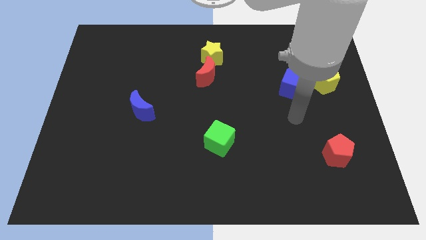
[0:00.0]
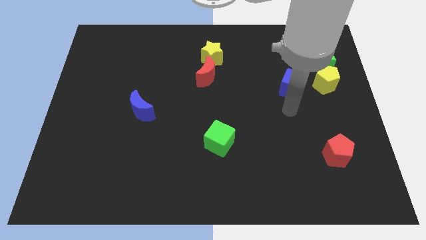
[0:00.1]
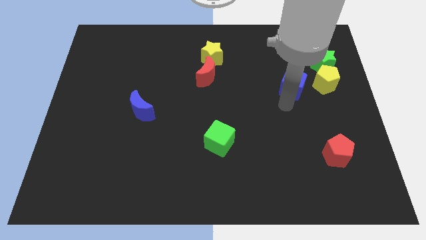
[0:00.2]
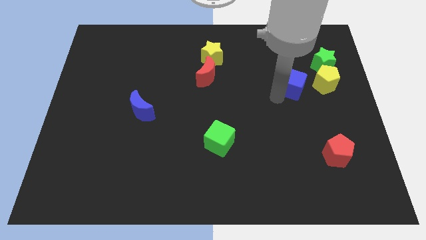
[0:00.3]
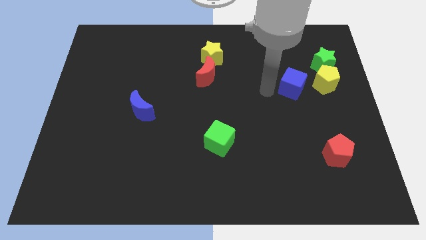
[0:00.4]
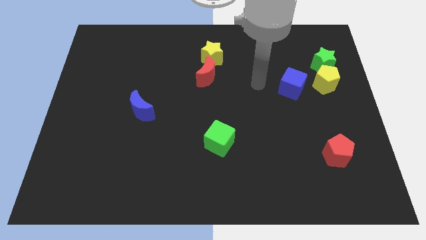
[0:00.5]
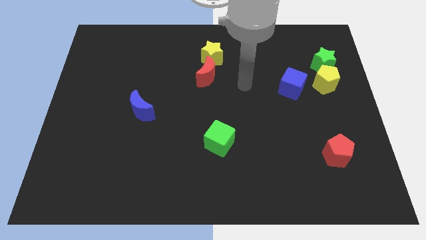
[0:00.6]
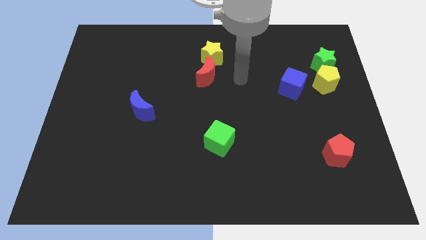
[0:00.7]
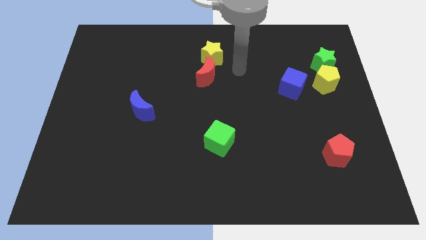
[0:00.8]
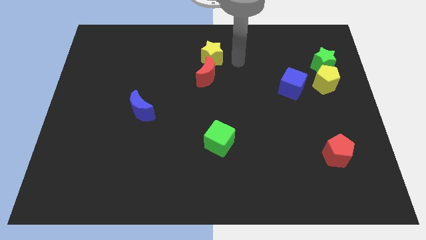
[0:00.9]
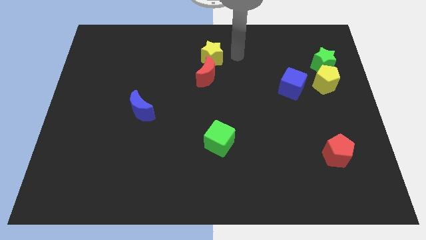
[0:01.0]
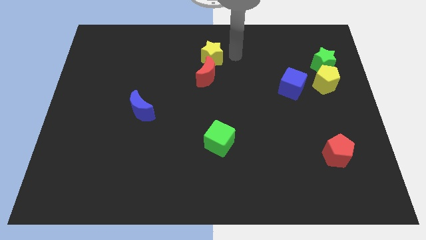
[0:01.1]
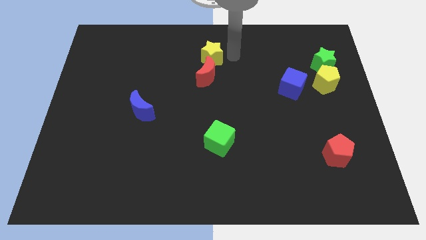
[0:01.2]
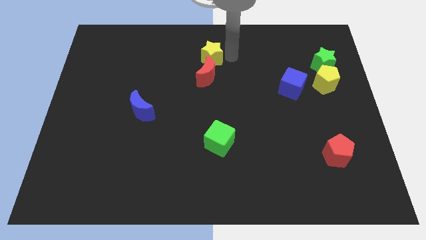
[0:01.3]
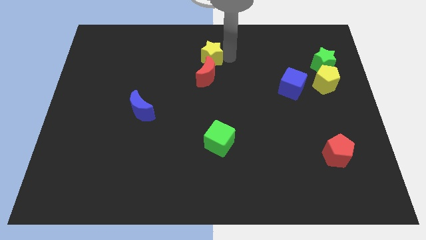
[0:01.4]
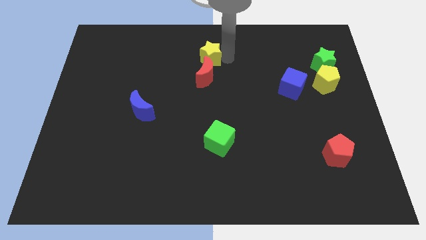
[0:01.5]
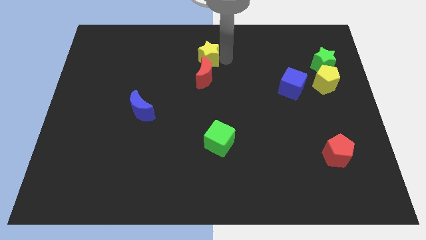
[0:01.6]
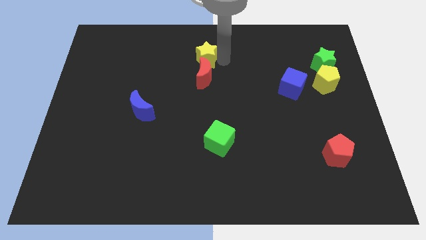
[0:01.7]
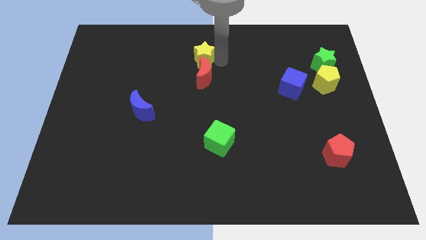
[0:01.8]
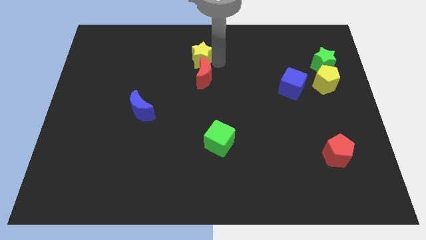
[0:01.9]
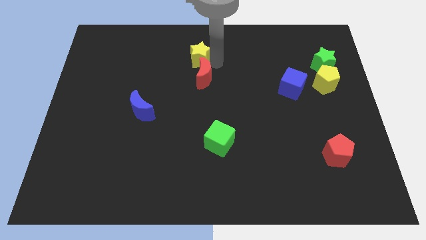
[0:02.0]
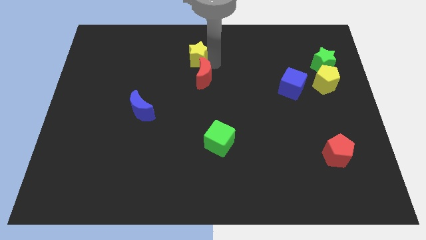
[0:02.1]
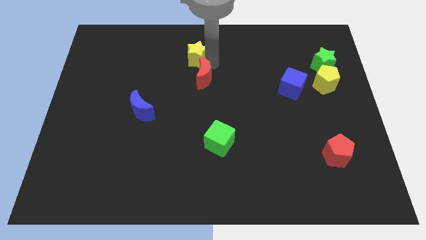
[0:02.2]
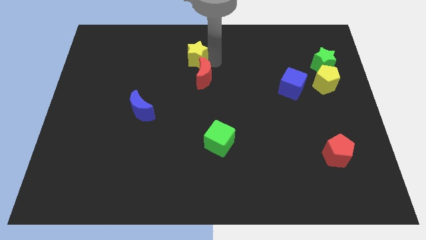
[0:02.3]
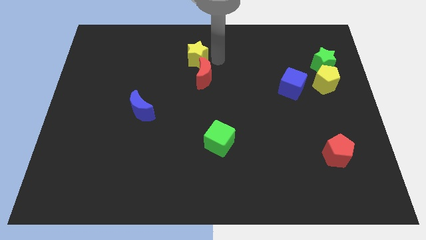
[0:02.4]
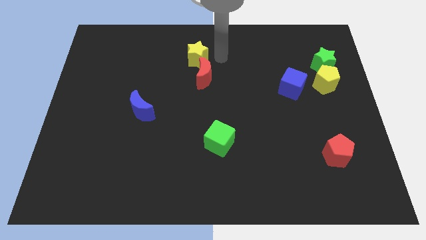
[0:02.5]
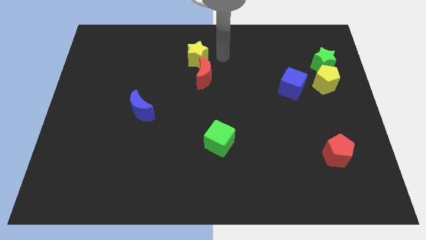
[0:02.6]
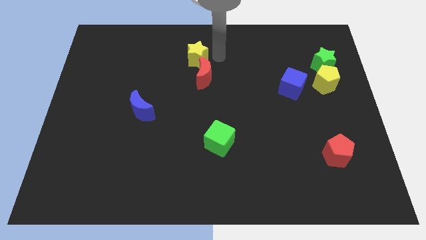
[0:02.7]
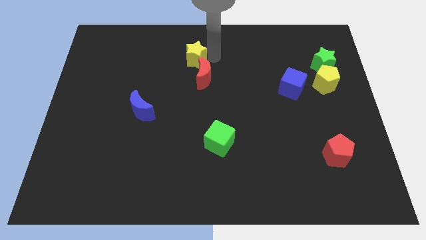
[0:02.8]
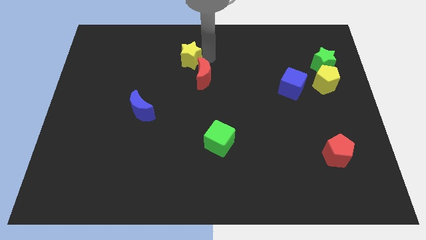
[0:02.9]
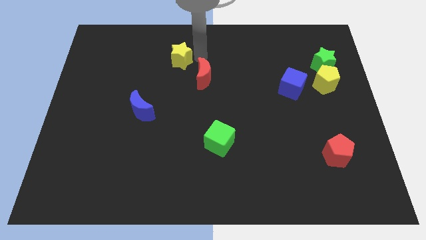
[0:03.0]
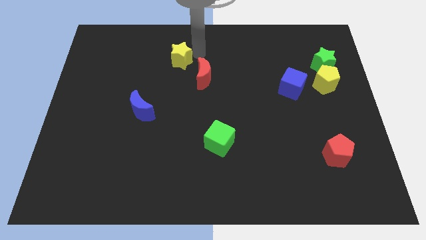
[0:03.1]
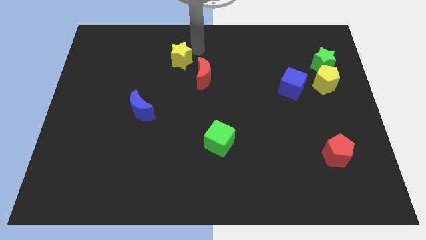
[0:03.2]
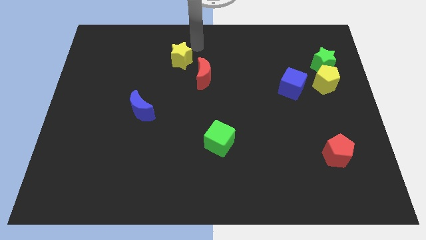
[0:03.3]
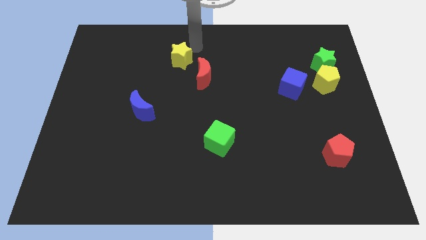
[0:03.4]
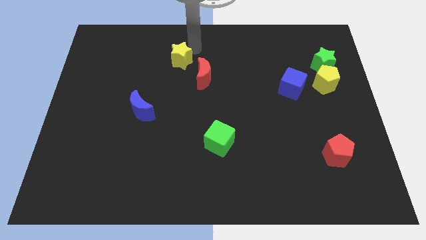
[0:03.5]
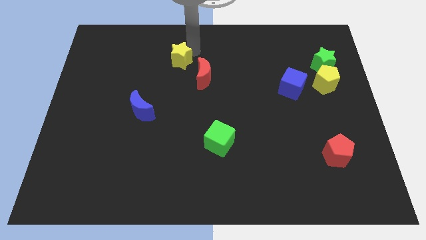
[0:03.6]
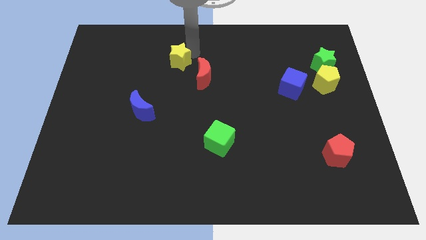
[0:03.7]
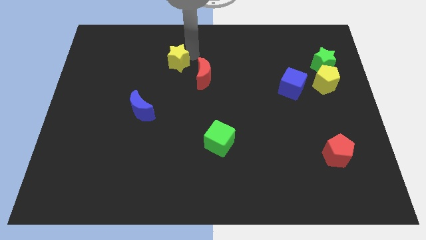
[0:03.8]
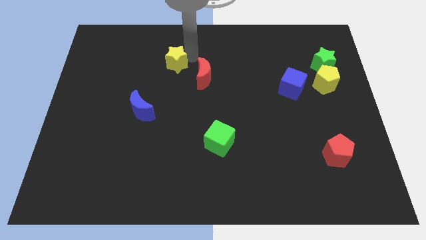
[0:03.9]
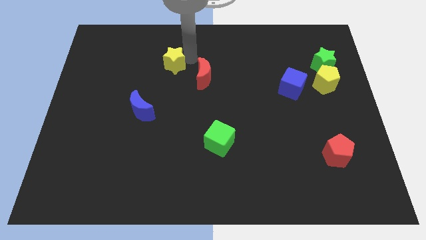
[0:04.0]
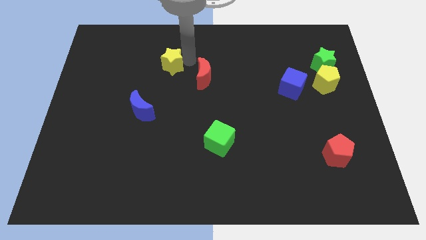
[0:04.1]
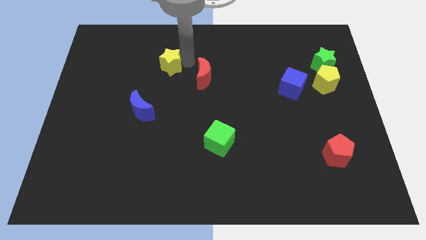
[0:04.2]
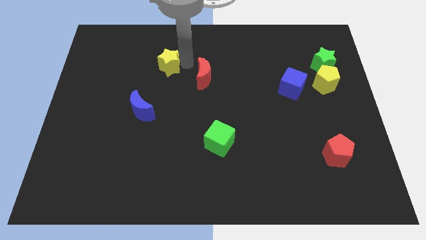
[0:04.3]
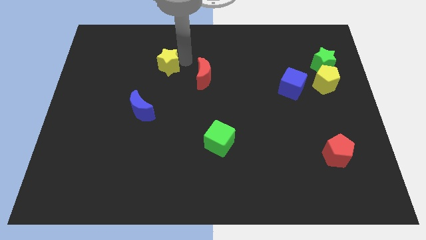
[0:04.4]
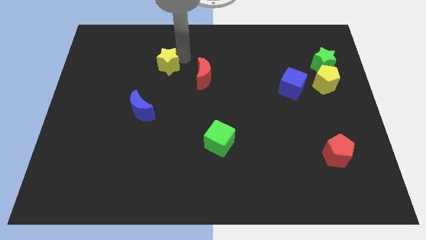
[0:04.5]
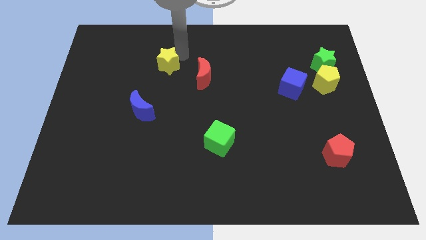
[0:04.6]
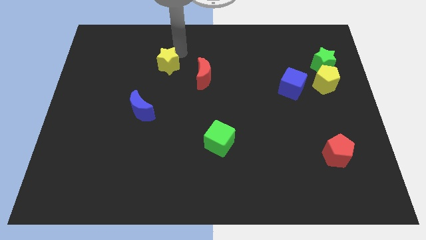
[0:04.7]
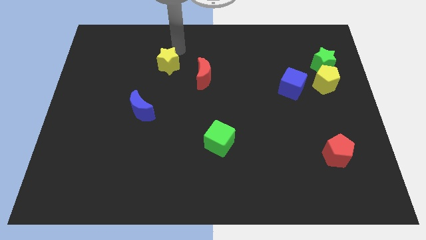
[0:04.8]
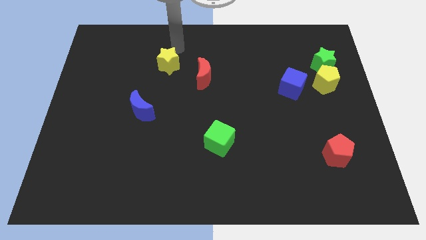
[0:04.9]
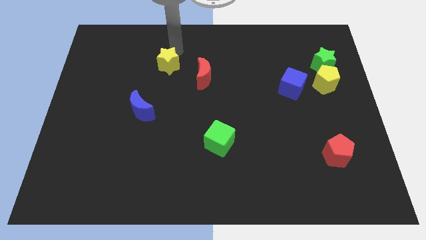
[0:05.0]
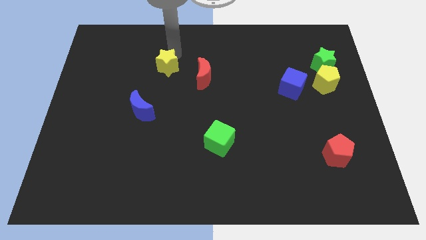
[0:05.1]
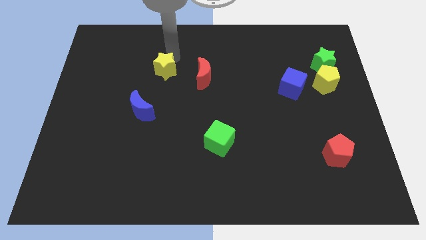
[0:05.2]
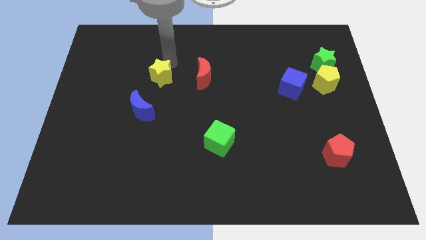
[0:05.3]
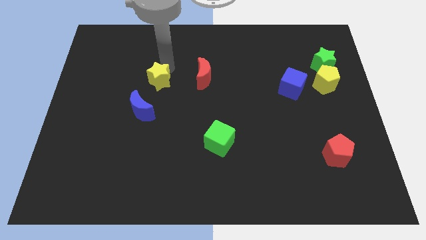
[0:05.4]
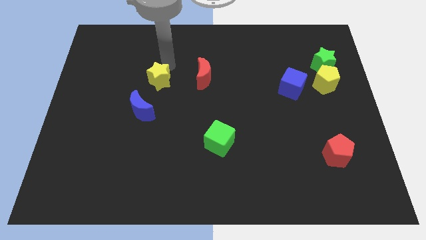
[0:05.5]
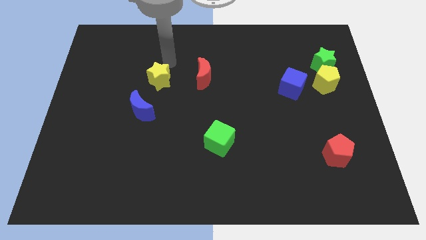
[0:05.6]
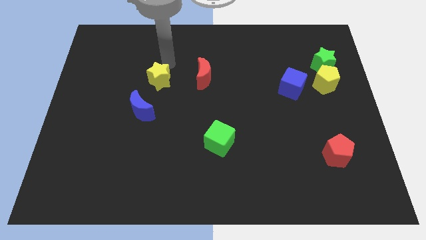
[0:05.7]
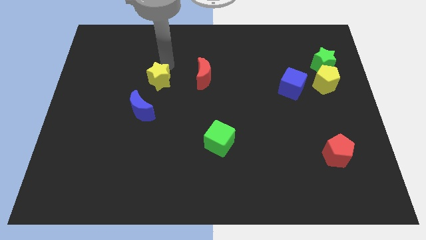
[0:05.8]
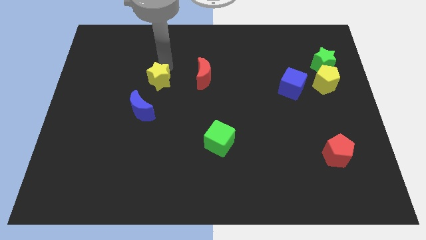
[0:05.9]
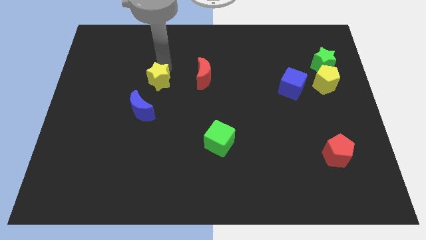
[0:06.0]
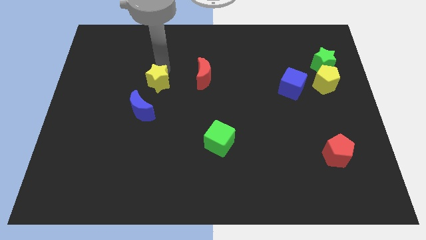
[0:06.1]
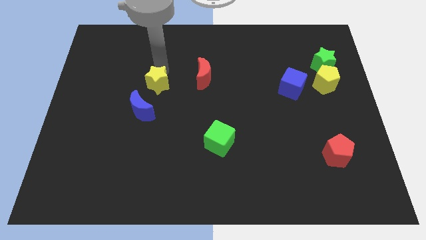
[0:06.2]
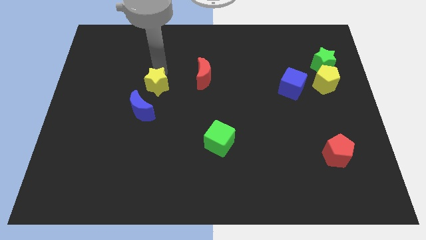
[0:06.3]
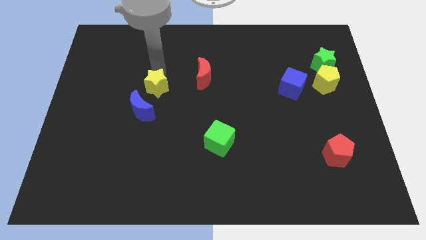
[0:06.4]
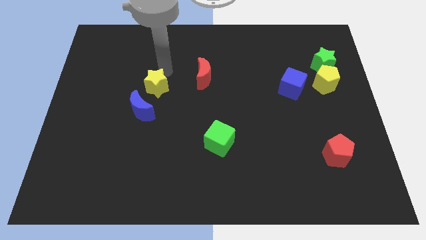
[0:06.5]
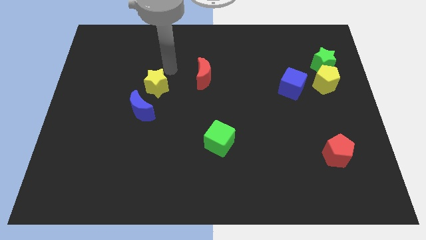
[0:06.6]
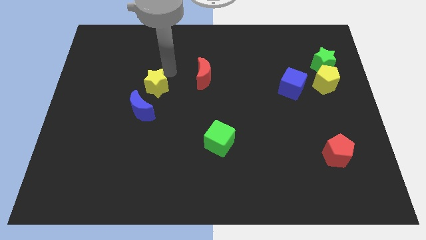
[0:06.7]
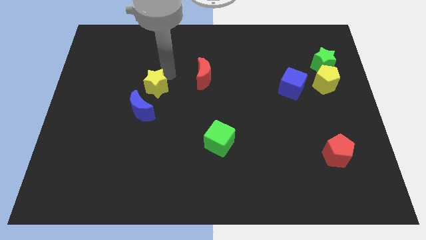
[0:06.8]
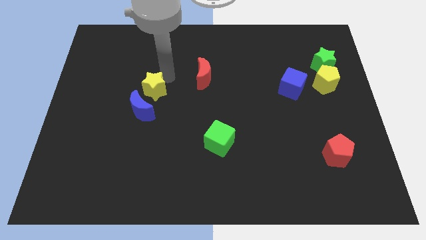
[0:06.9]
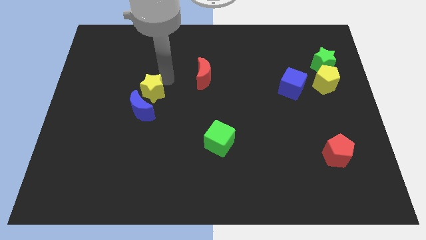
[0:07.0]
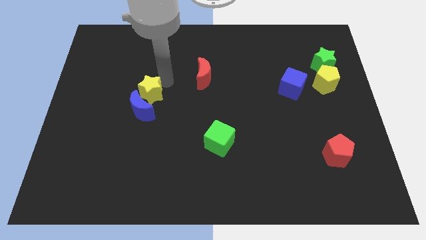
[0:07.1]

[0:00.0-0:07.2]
slide the yellow star to the blue moon
